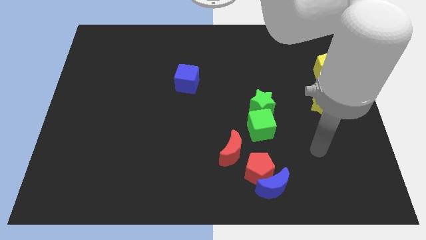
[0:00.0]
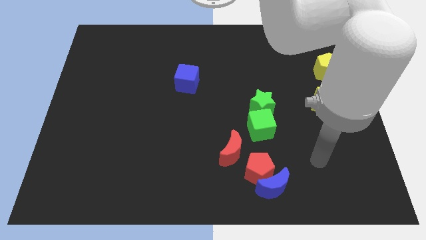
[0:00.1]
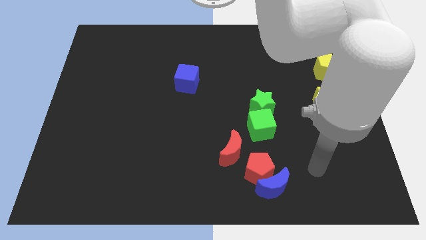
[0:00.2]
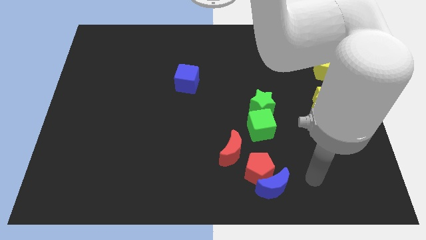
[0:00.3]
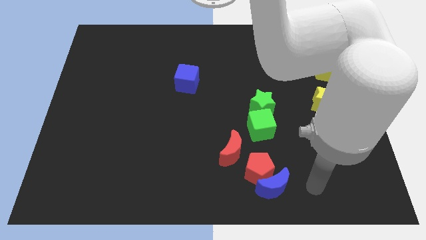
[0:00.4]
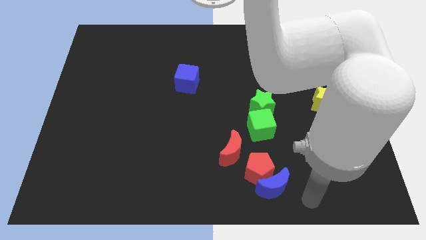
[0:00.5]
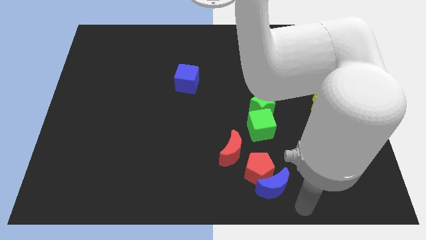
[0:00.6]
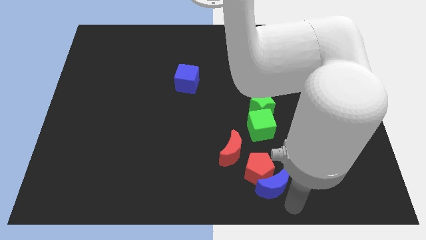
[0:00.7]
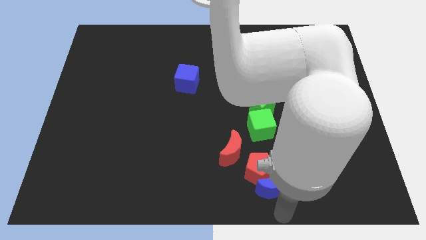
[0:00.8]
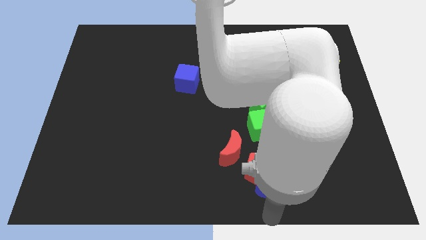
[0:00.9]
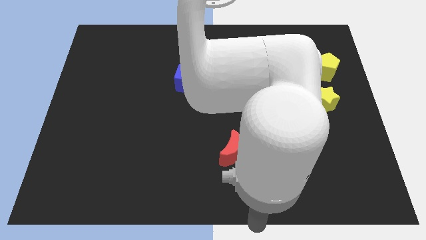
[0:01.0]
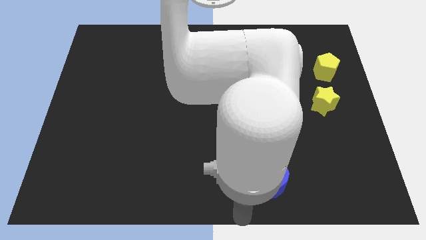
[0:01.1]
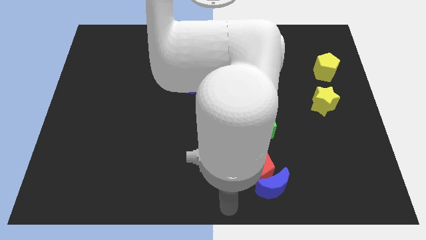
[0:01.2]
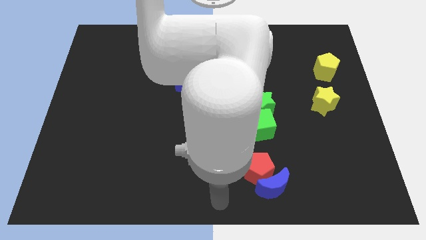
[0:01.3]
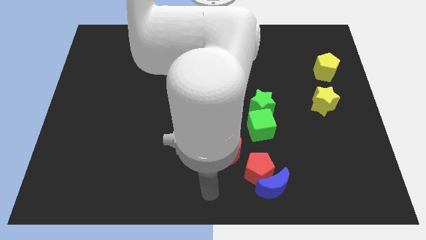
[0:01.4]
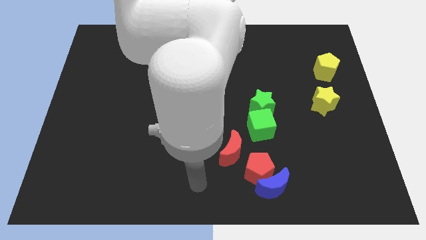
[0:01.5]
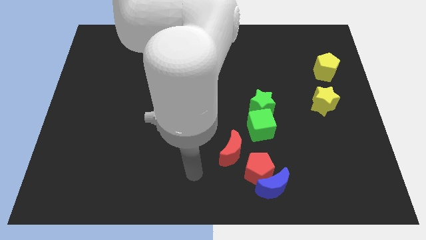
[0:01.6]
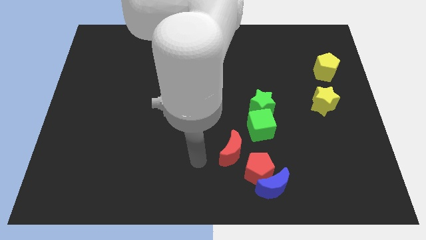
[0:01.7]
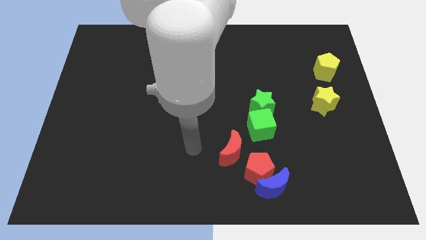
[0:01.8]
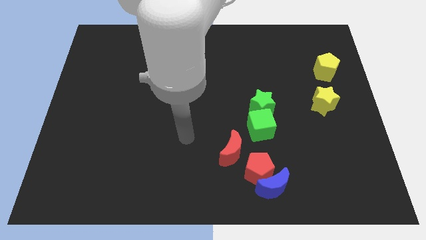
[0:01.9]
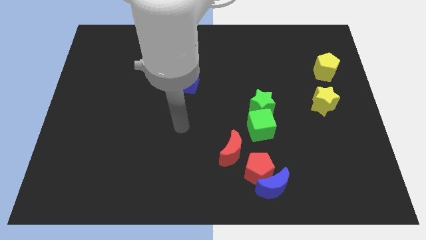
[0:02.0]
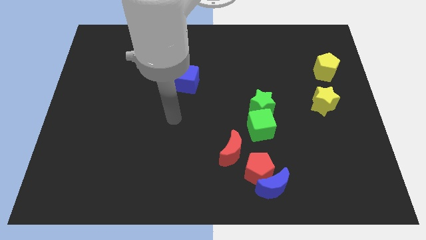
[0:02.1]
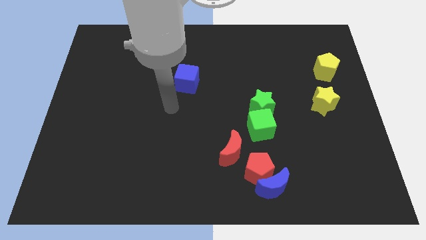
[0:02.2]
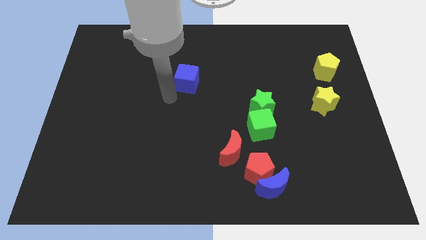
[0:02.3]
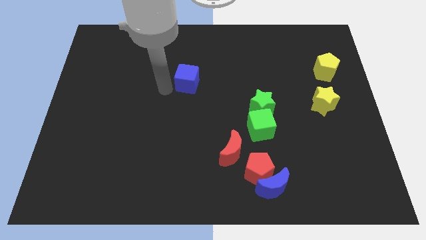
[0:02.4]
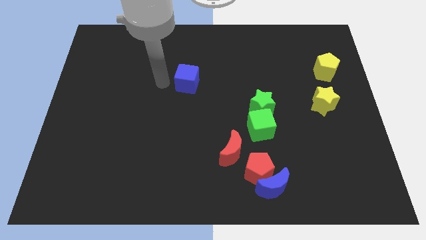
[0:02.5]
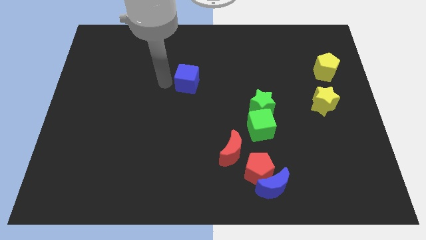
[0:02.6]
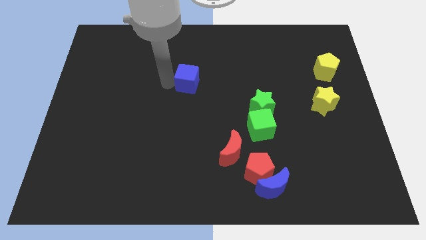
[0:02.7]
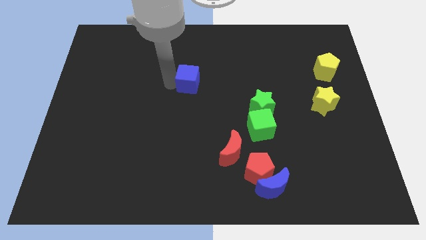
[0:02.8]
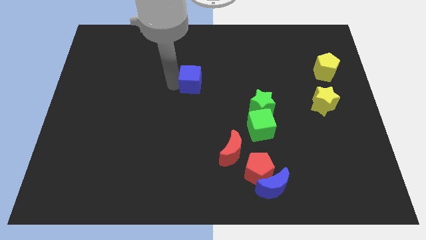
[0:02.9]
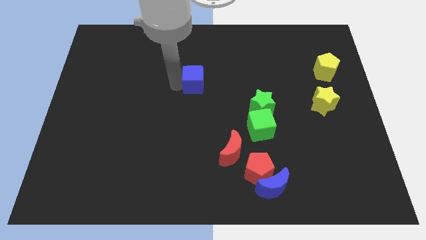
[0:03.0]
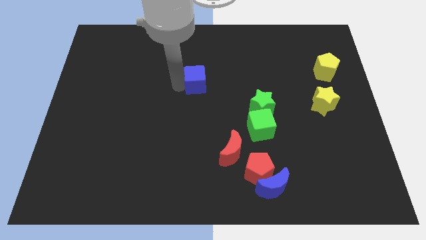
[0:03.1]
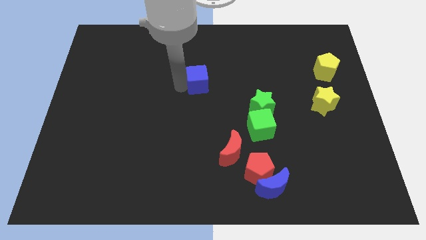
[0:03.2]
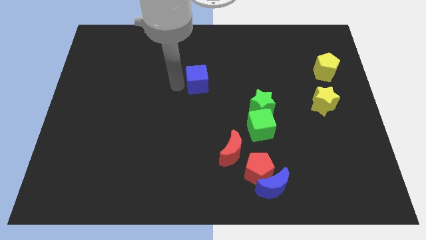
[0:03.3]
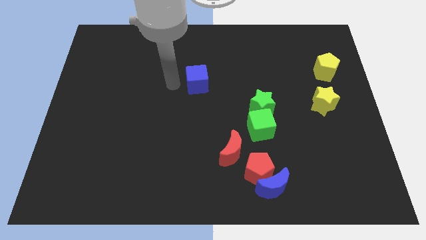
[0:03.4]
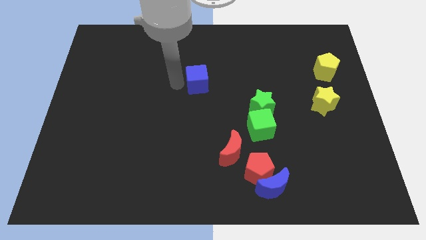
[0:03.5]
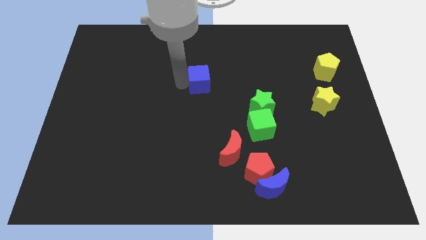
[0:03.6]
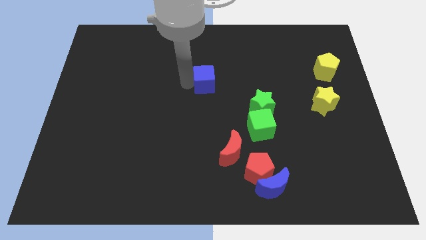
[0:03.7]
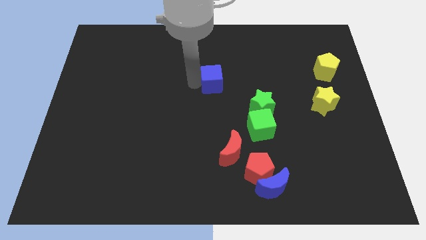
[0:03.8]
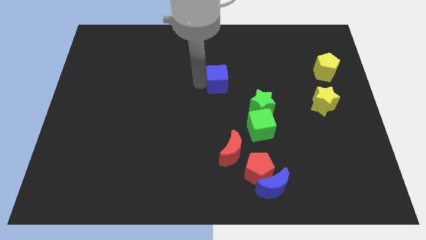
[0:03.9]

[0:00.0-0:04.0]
slightly slide the blue cube to the right

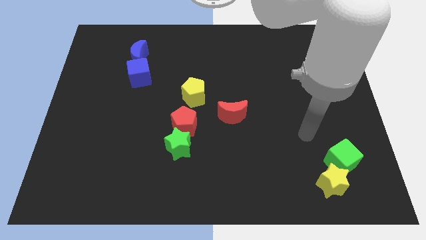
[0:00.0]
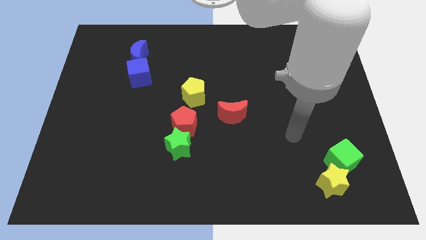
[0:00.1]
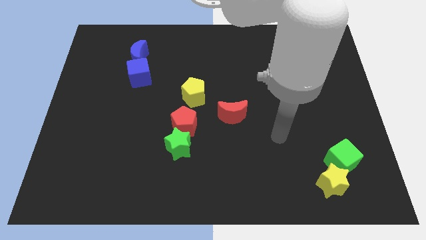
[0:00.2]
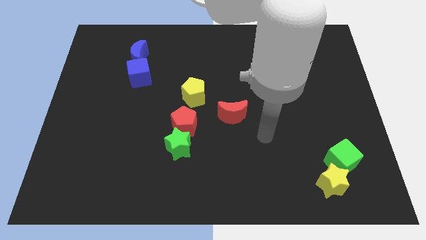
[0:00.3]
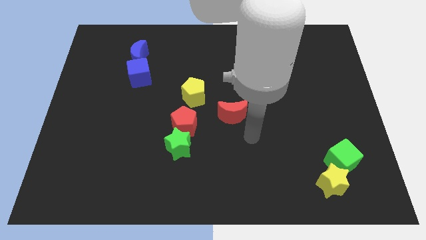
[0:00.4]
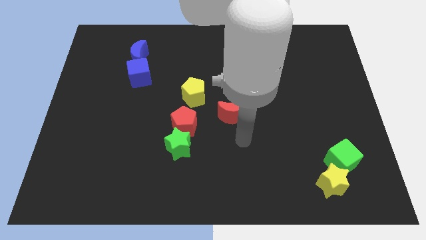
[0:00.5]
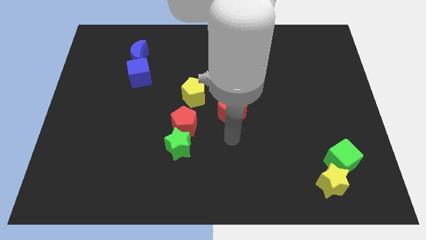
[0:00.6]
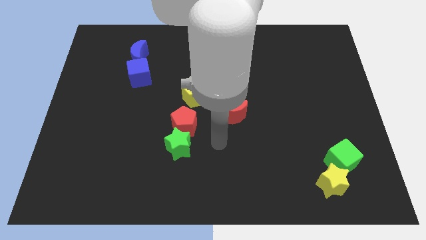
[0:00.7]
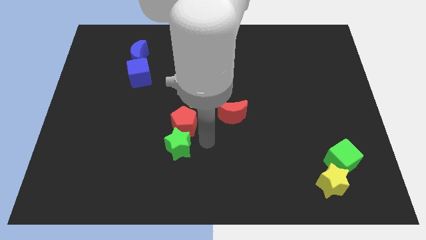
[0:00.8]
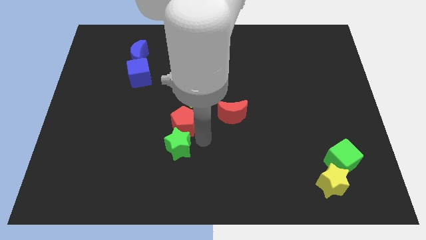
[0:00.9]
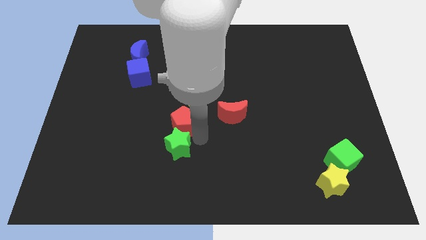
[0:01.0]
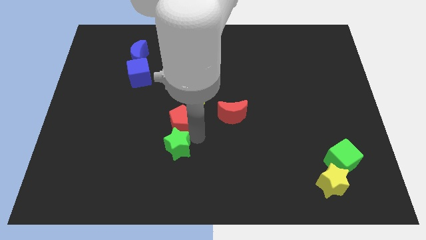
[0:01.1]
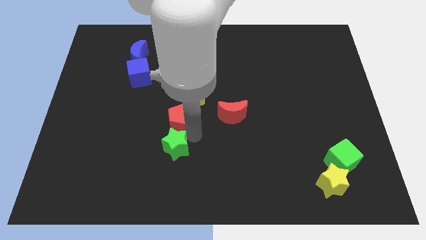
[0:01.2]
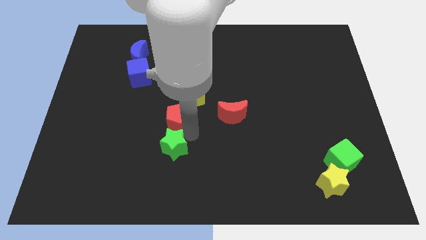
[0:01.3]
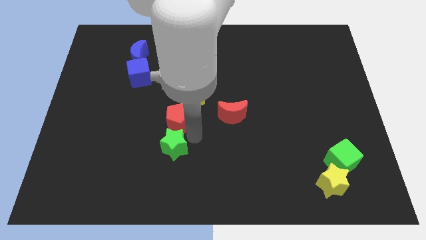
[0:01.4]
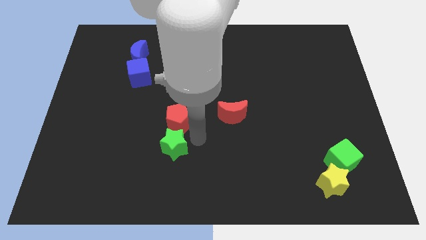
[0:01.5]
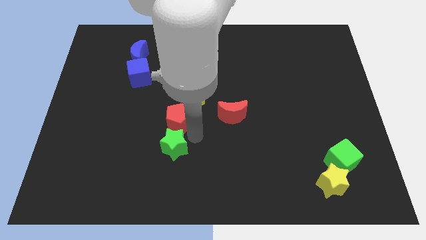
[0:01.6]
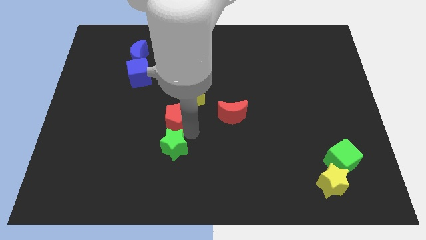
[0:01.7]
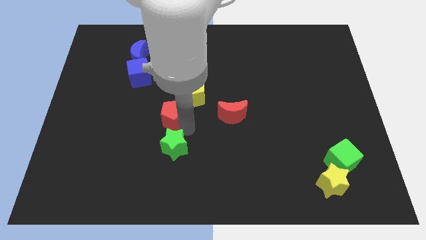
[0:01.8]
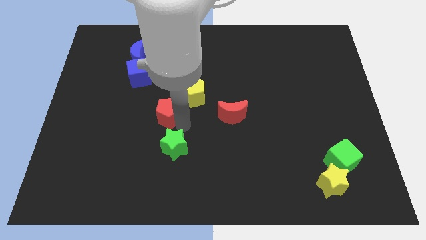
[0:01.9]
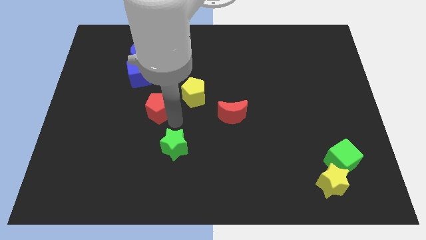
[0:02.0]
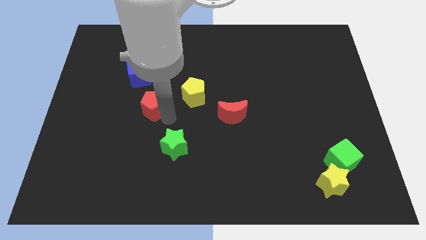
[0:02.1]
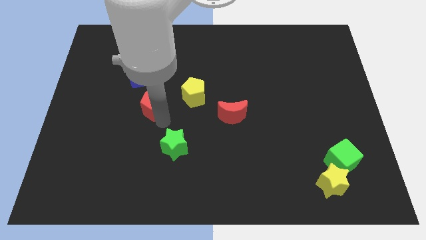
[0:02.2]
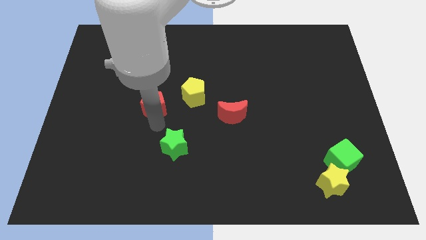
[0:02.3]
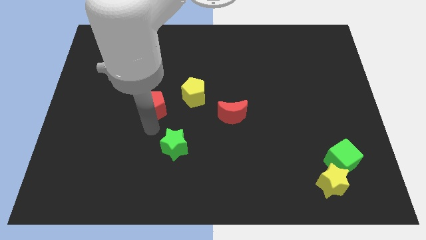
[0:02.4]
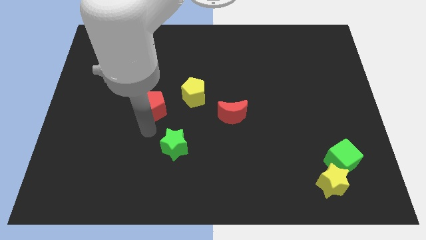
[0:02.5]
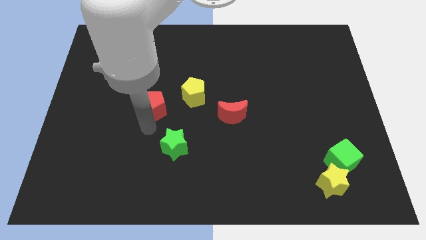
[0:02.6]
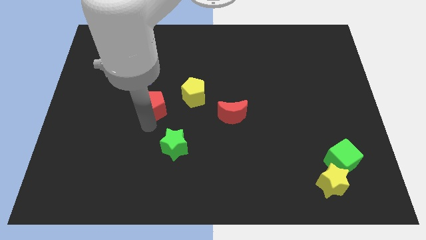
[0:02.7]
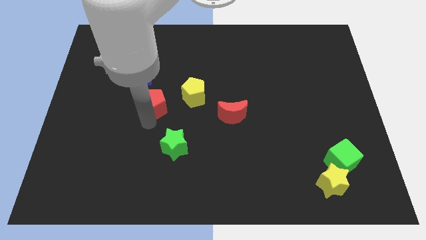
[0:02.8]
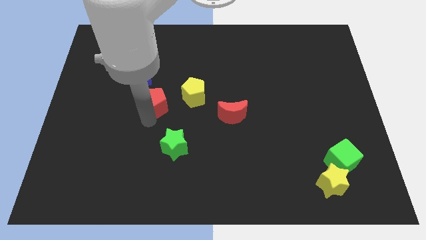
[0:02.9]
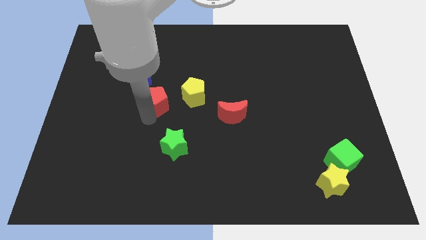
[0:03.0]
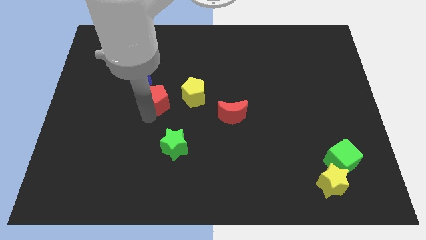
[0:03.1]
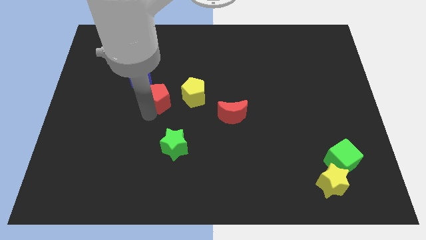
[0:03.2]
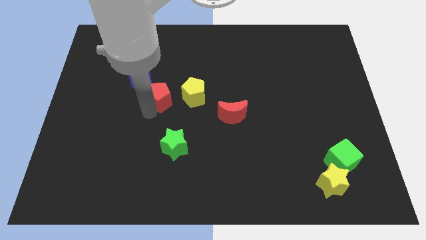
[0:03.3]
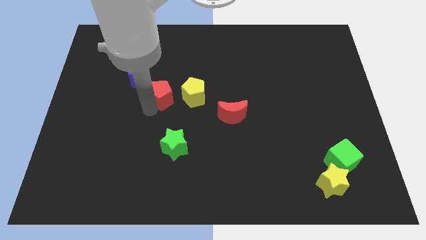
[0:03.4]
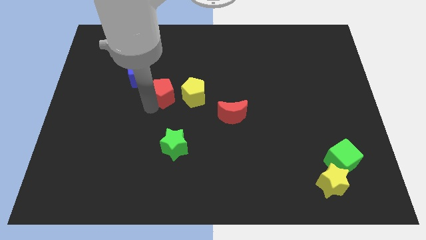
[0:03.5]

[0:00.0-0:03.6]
move the red pentagon a bit upwards

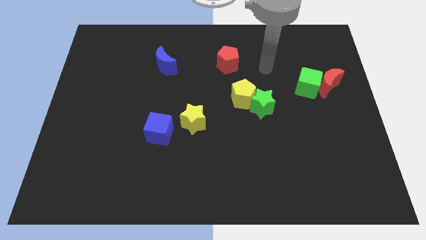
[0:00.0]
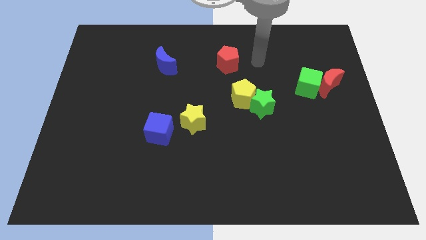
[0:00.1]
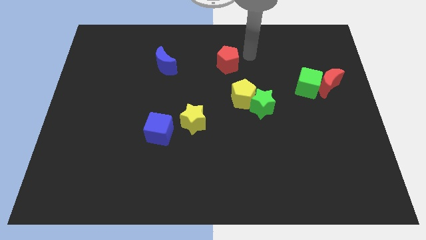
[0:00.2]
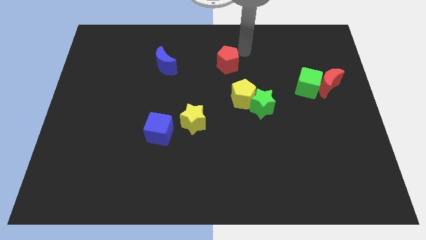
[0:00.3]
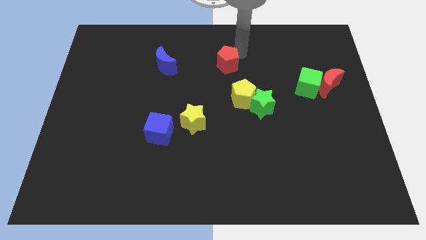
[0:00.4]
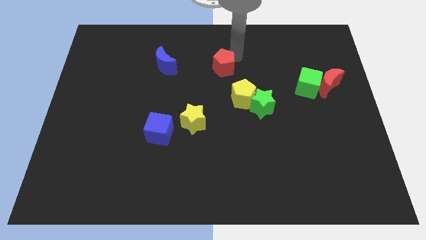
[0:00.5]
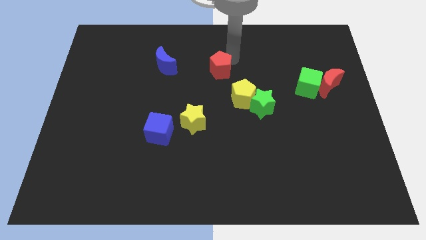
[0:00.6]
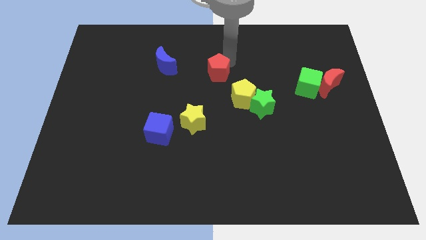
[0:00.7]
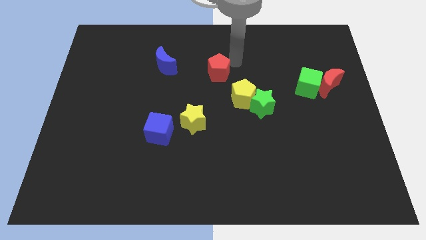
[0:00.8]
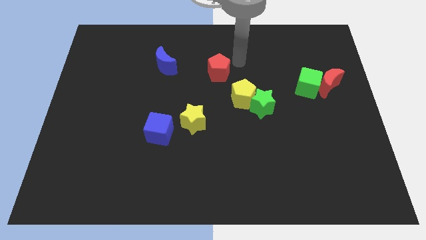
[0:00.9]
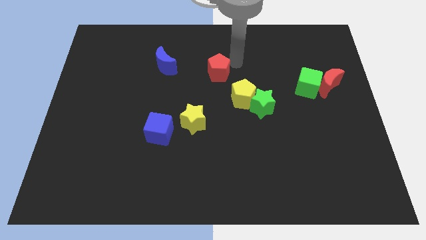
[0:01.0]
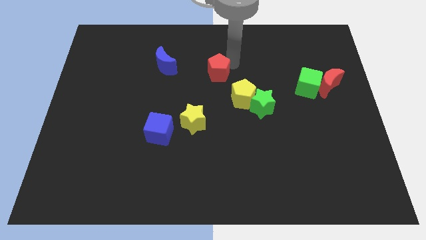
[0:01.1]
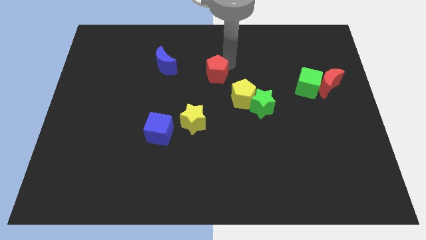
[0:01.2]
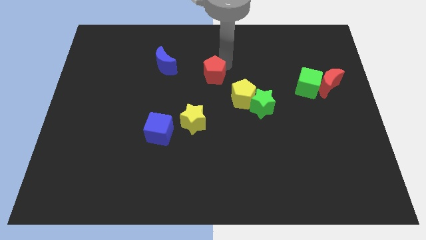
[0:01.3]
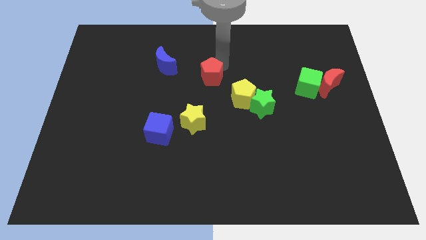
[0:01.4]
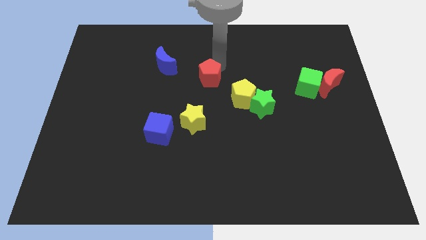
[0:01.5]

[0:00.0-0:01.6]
slightly move the red pentagon downwards and then left
